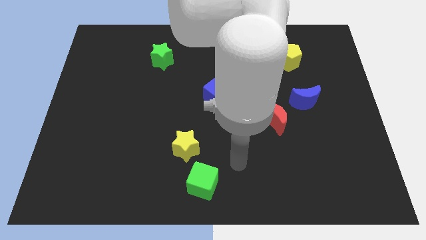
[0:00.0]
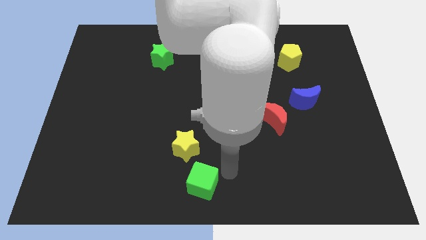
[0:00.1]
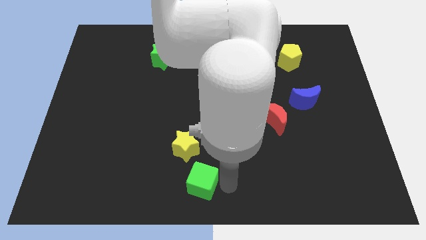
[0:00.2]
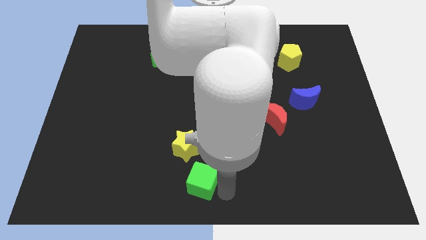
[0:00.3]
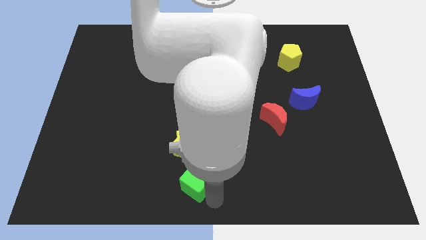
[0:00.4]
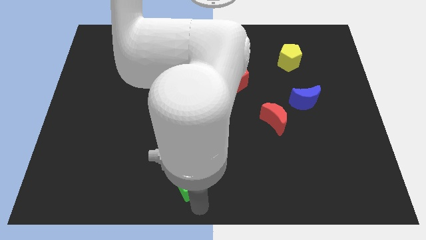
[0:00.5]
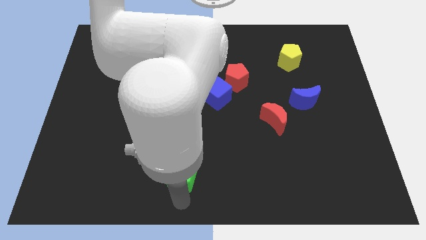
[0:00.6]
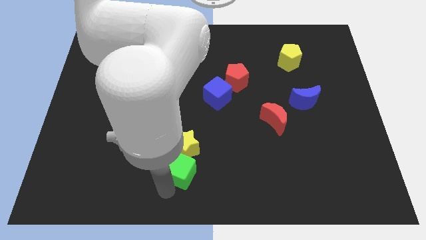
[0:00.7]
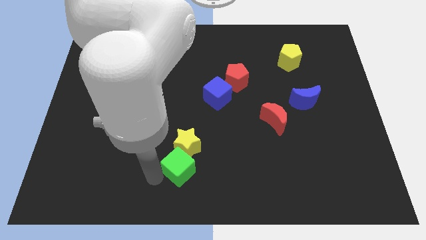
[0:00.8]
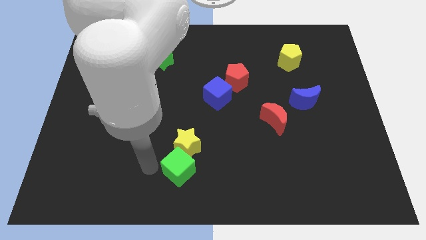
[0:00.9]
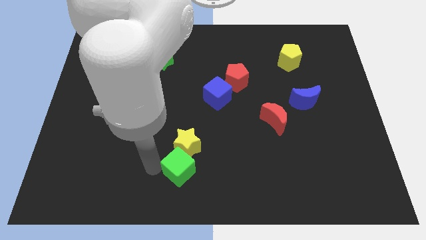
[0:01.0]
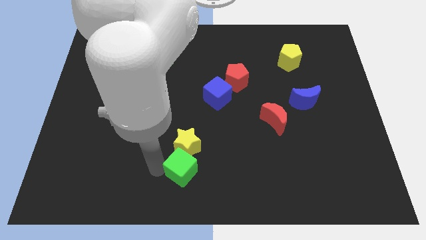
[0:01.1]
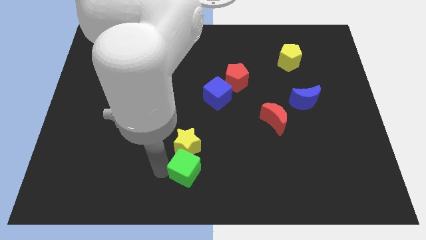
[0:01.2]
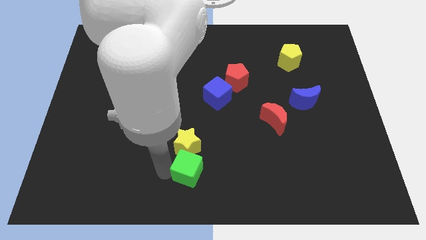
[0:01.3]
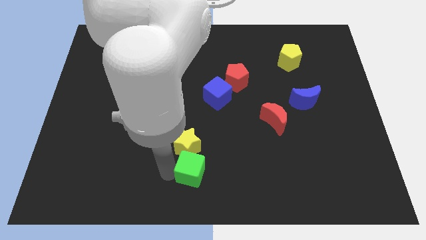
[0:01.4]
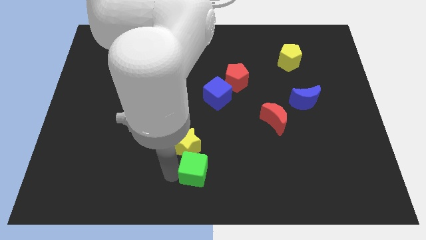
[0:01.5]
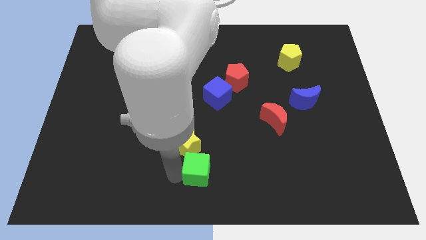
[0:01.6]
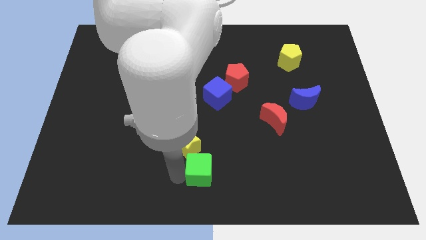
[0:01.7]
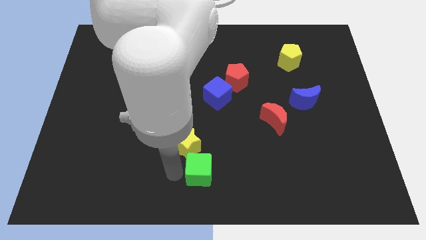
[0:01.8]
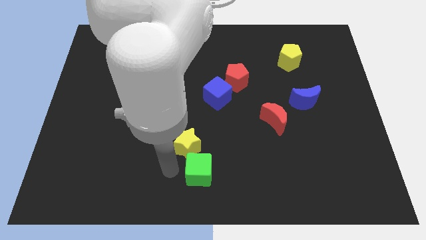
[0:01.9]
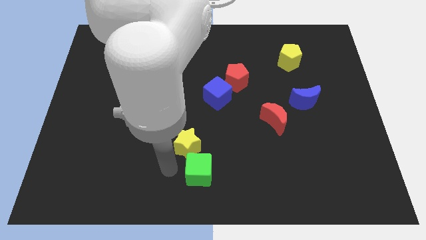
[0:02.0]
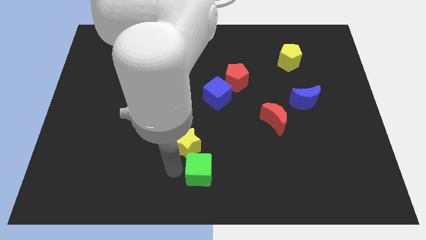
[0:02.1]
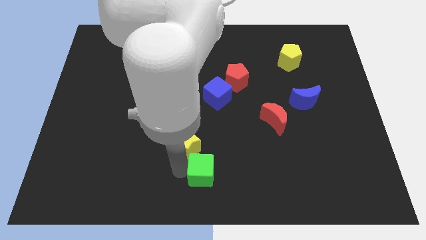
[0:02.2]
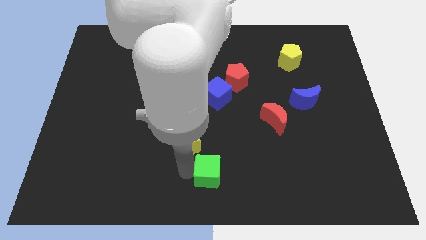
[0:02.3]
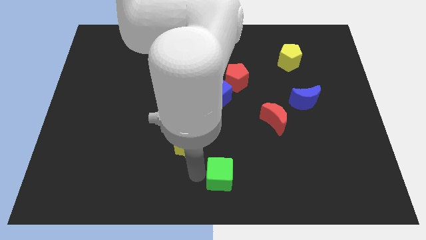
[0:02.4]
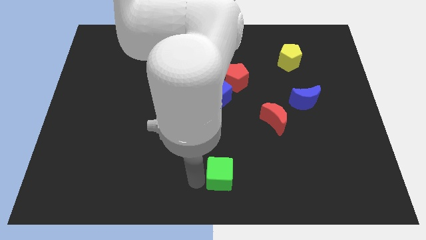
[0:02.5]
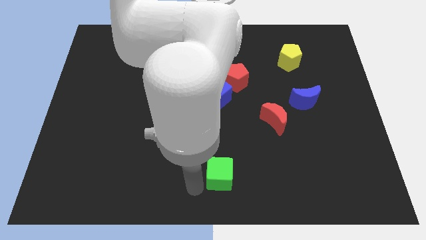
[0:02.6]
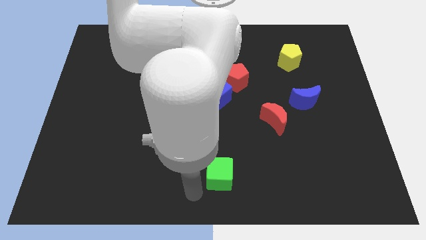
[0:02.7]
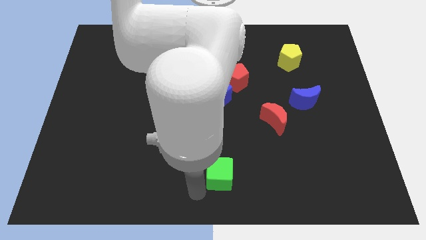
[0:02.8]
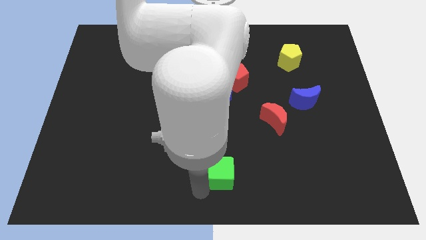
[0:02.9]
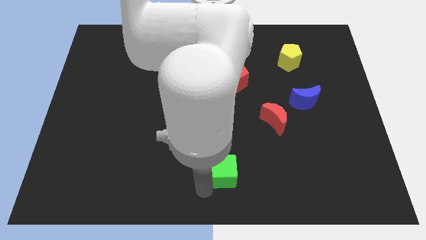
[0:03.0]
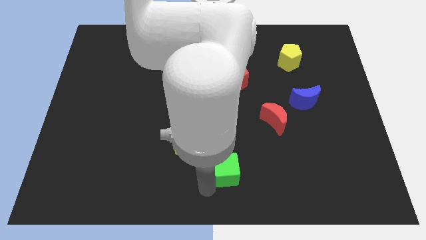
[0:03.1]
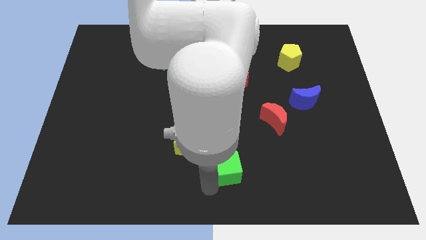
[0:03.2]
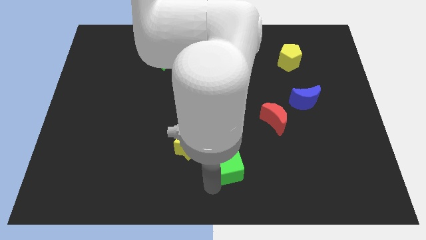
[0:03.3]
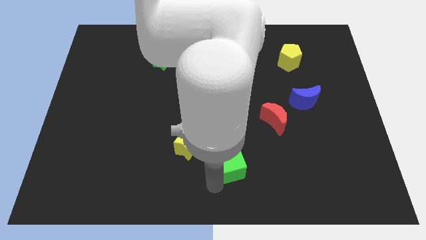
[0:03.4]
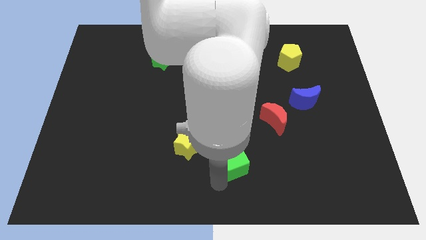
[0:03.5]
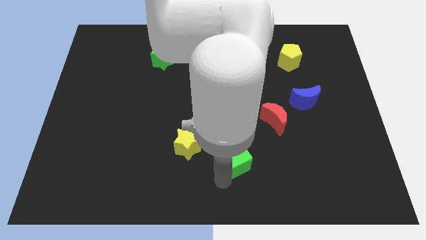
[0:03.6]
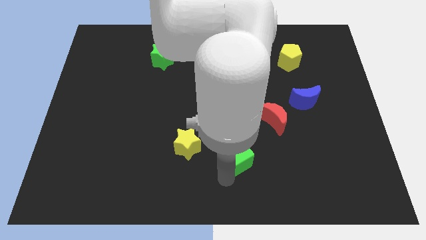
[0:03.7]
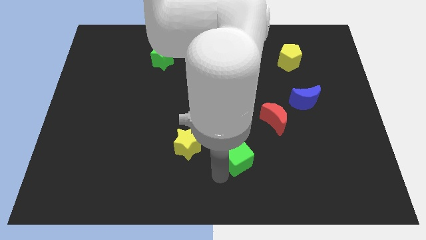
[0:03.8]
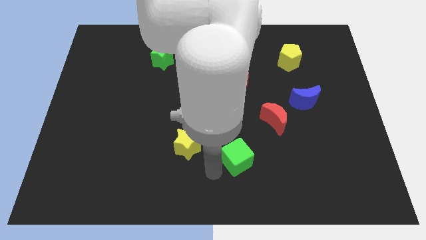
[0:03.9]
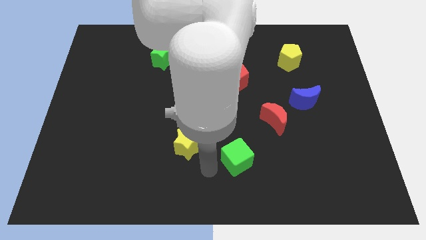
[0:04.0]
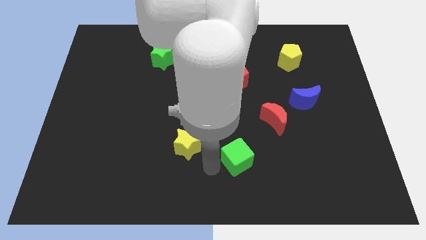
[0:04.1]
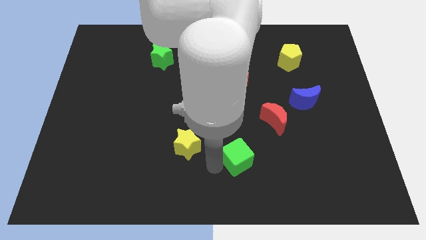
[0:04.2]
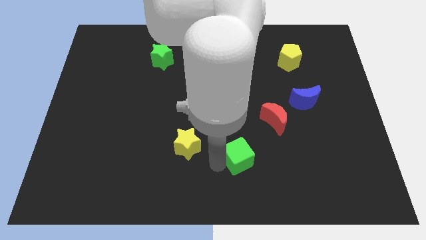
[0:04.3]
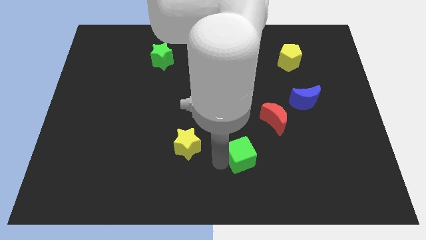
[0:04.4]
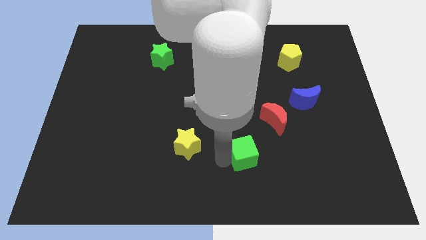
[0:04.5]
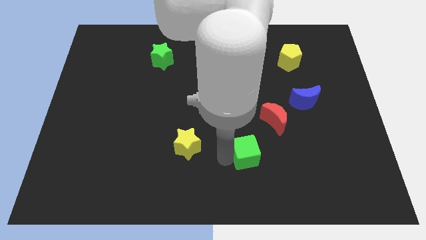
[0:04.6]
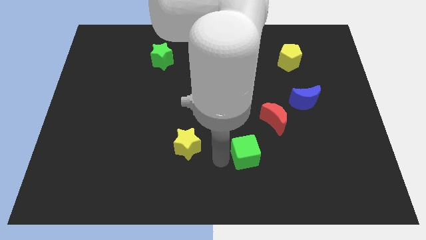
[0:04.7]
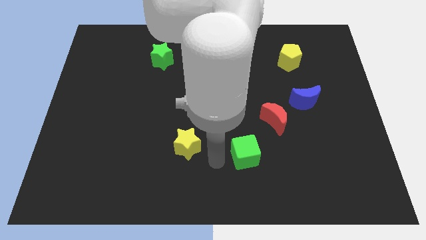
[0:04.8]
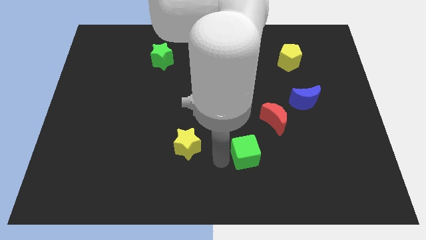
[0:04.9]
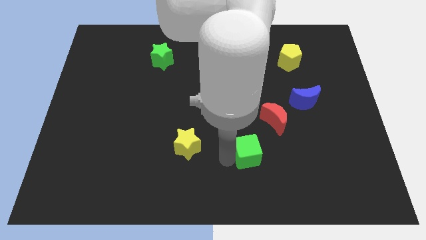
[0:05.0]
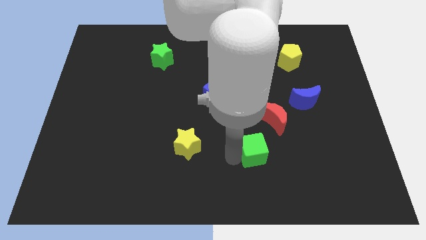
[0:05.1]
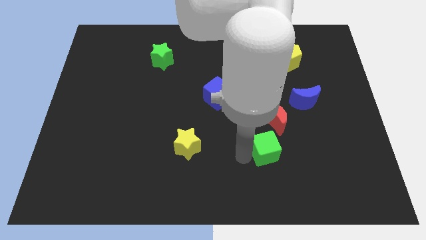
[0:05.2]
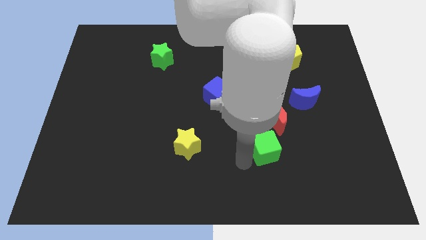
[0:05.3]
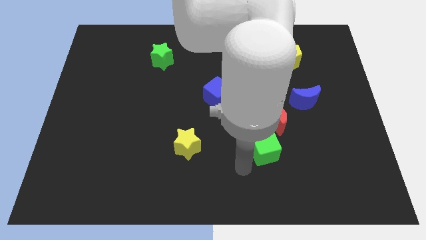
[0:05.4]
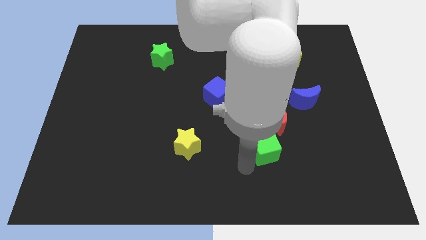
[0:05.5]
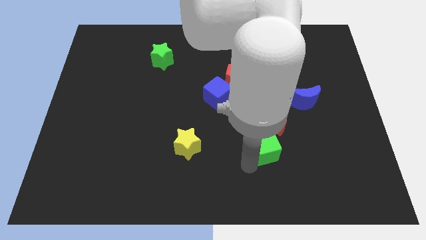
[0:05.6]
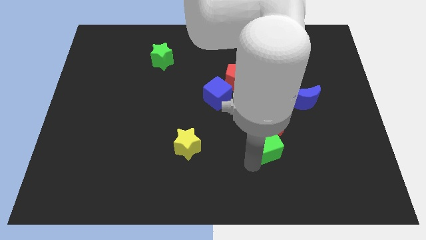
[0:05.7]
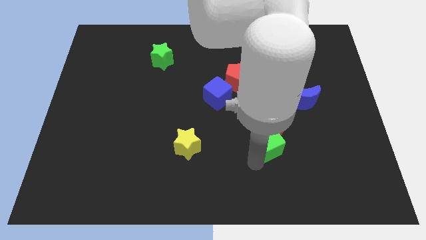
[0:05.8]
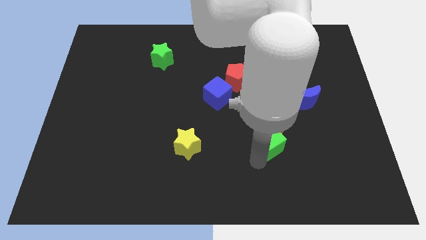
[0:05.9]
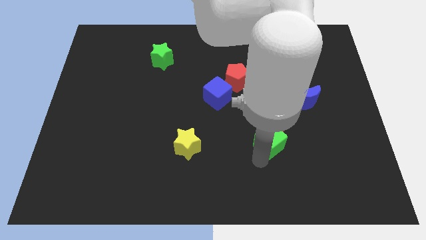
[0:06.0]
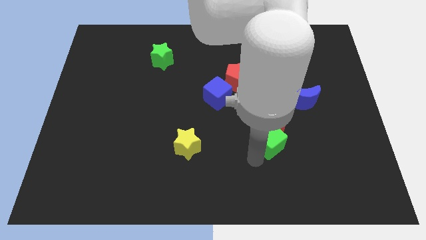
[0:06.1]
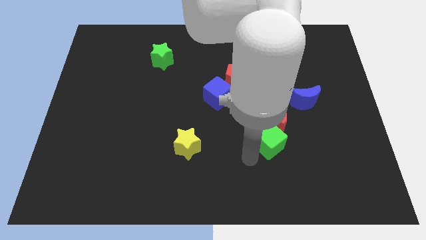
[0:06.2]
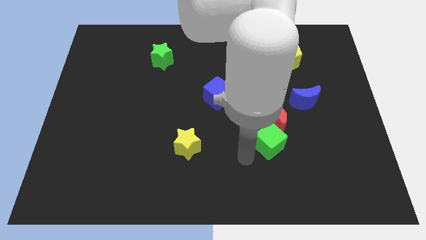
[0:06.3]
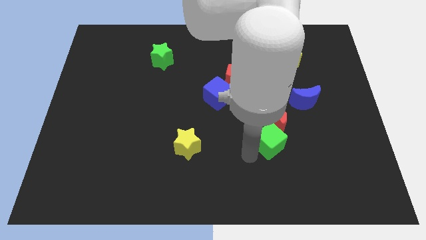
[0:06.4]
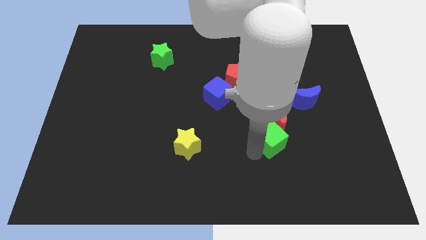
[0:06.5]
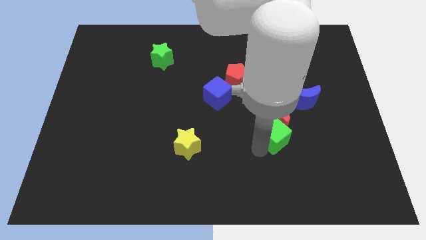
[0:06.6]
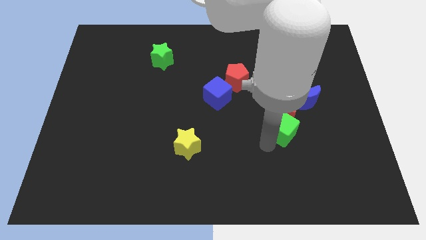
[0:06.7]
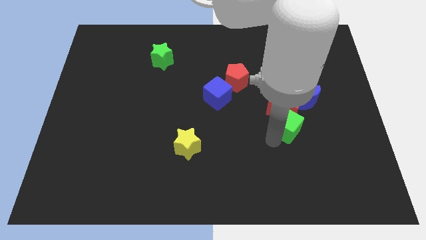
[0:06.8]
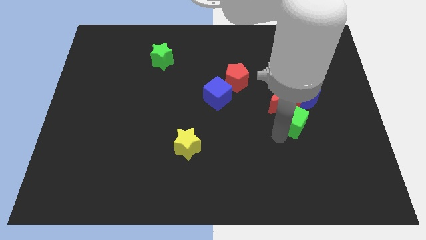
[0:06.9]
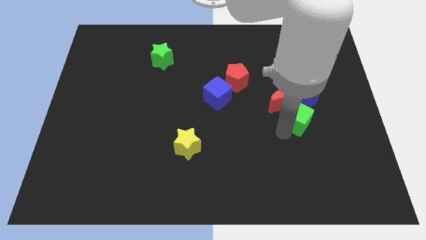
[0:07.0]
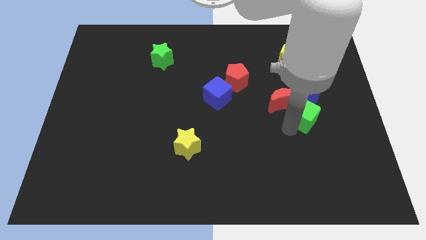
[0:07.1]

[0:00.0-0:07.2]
push the green cube next to the blue moon
